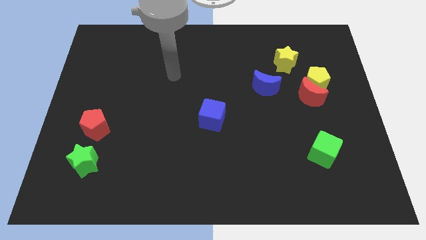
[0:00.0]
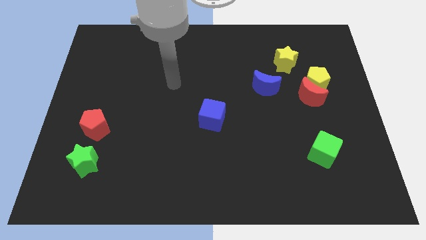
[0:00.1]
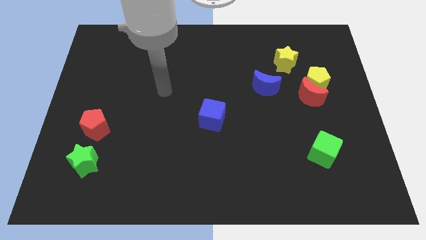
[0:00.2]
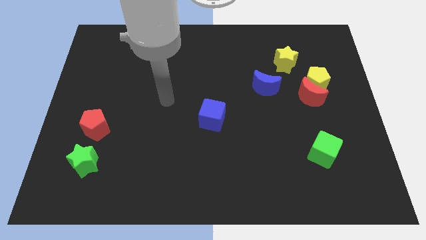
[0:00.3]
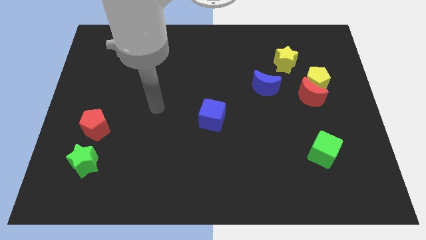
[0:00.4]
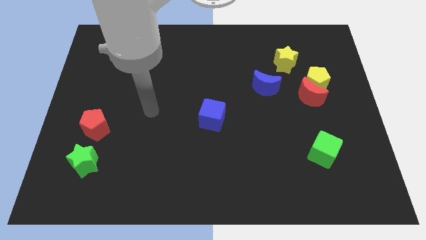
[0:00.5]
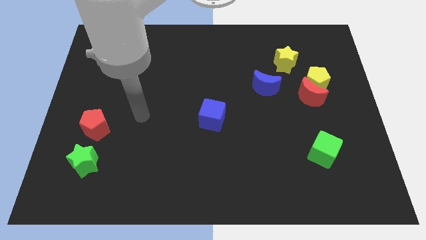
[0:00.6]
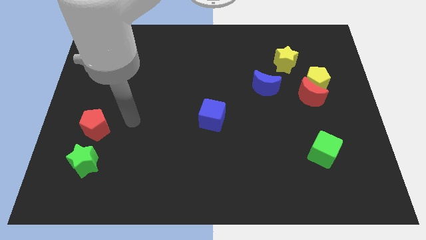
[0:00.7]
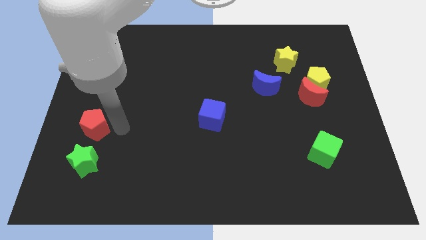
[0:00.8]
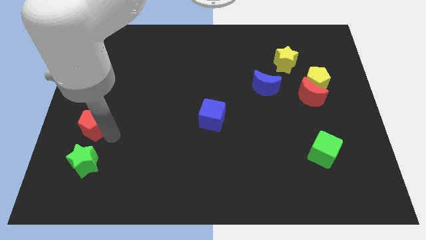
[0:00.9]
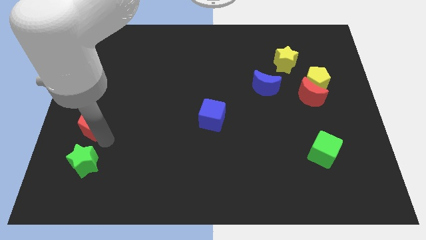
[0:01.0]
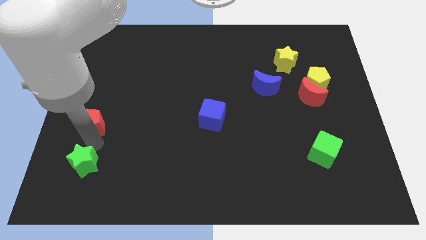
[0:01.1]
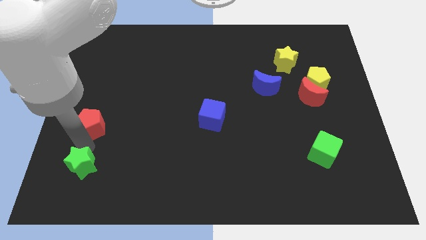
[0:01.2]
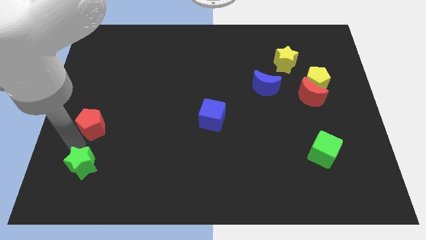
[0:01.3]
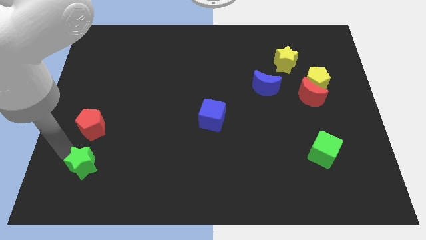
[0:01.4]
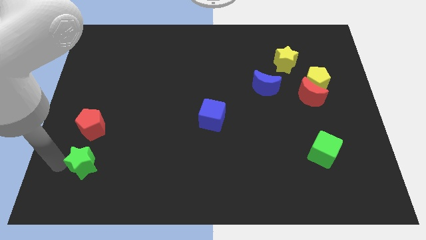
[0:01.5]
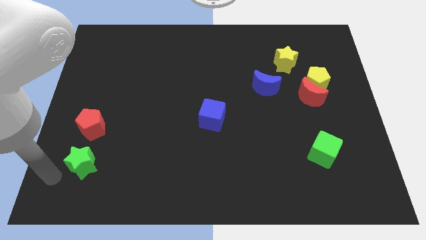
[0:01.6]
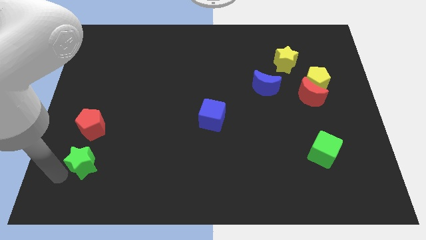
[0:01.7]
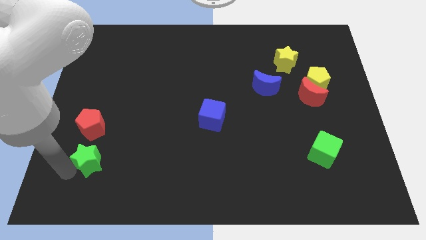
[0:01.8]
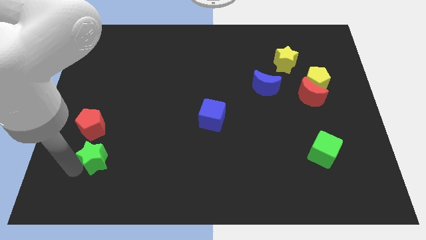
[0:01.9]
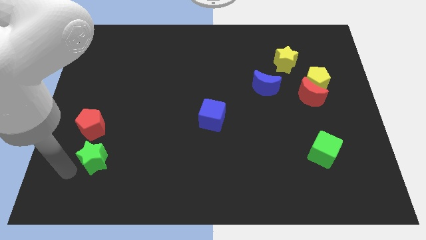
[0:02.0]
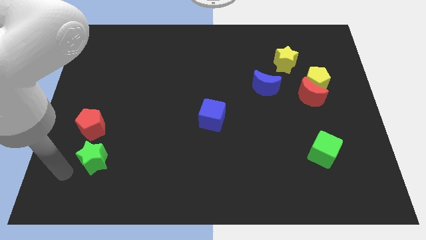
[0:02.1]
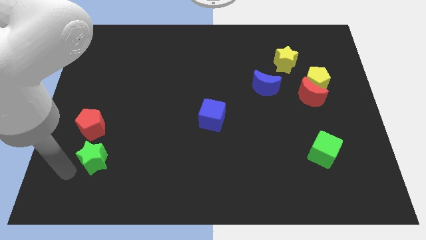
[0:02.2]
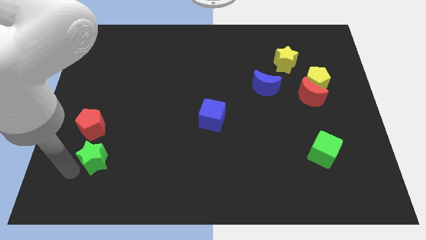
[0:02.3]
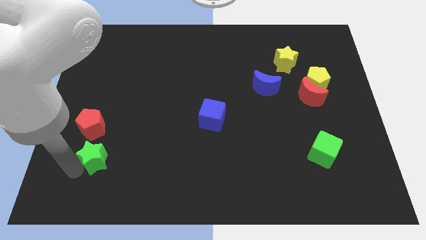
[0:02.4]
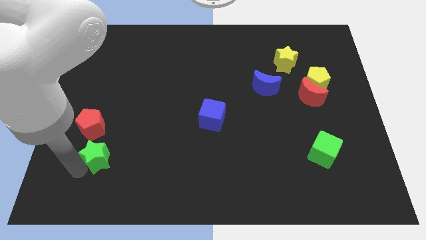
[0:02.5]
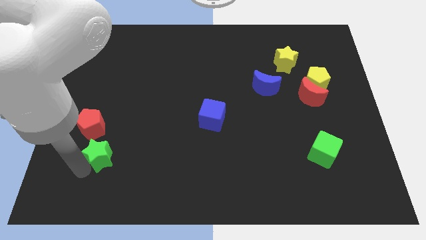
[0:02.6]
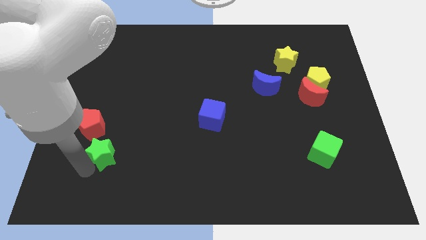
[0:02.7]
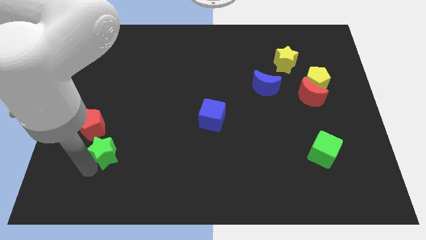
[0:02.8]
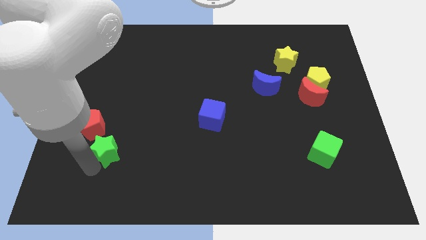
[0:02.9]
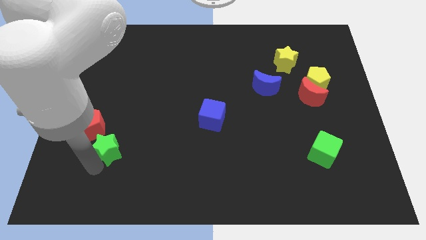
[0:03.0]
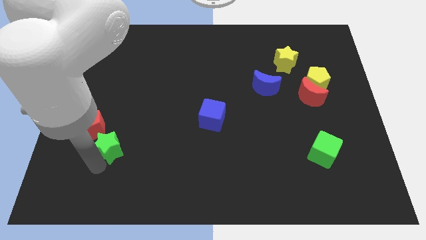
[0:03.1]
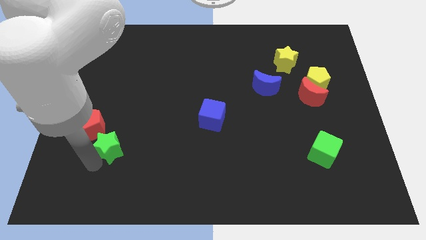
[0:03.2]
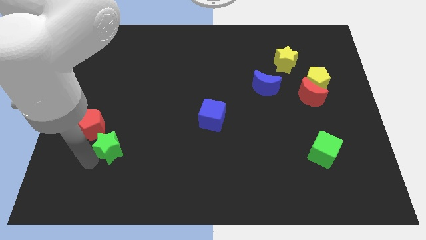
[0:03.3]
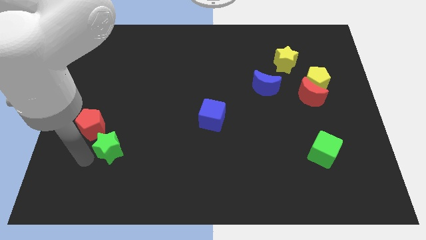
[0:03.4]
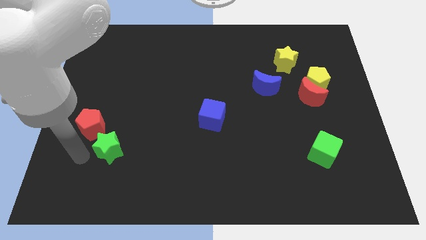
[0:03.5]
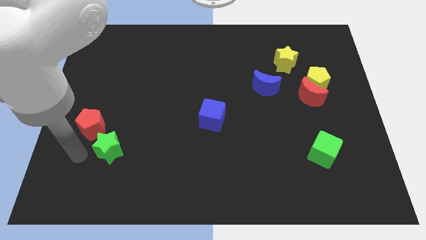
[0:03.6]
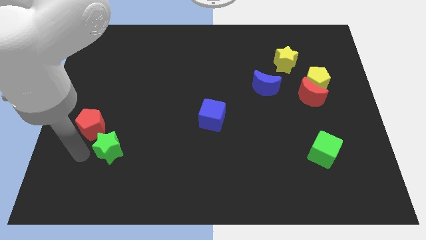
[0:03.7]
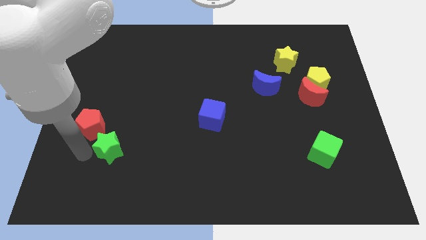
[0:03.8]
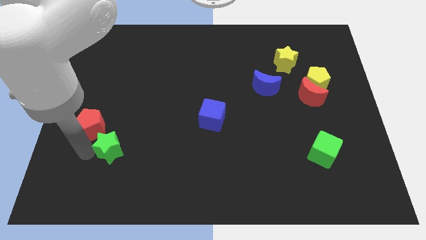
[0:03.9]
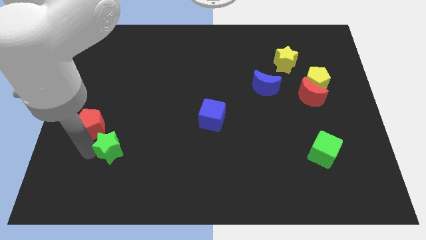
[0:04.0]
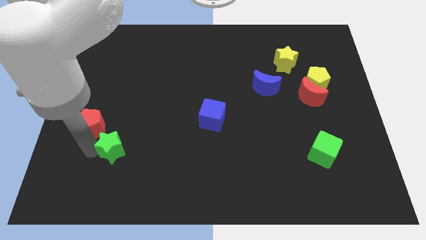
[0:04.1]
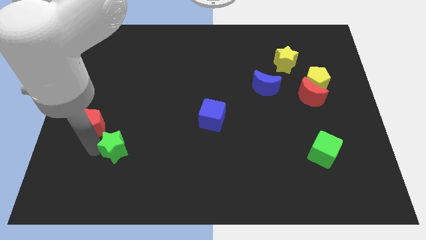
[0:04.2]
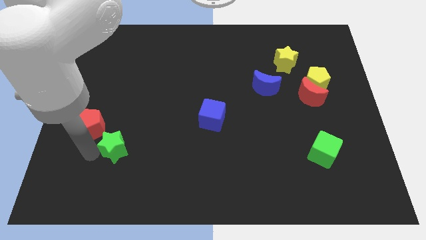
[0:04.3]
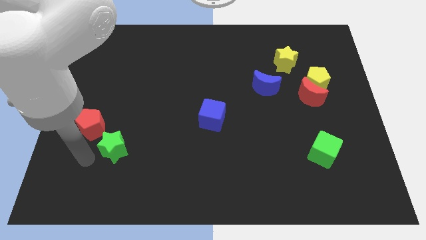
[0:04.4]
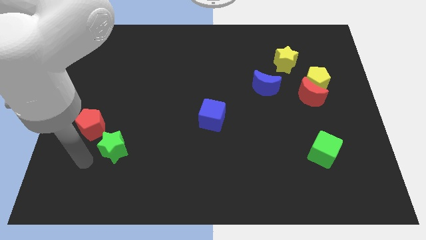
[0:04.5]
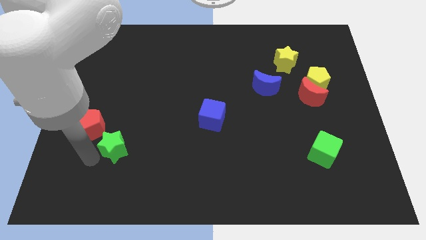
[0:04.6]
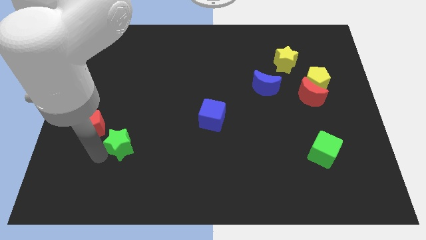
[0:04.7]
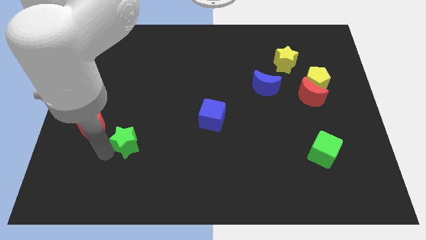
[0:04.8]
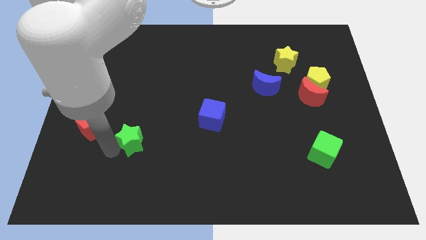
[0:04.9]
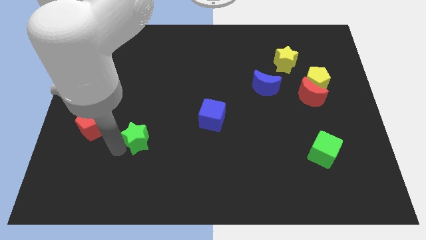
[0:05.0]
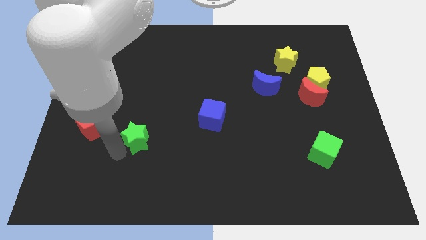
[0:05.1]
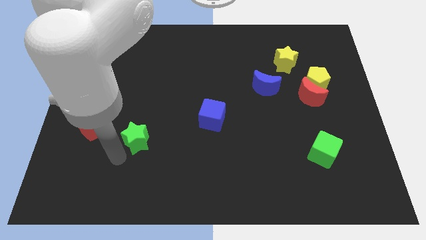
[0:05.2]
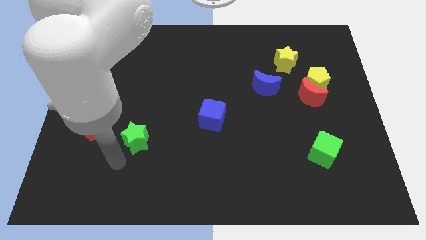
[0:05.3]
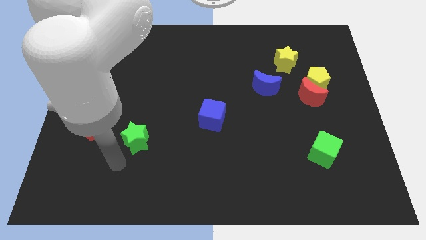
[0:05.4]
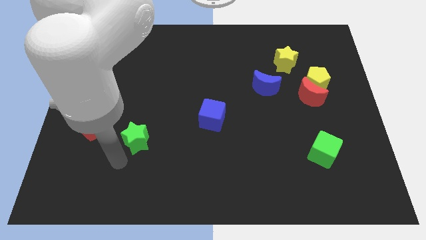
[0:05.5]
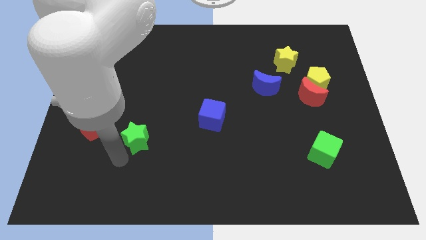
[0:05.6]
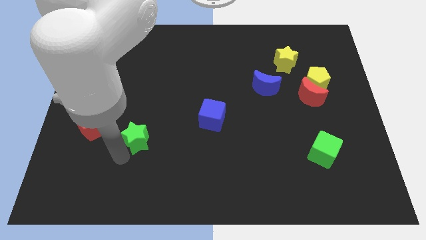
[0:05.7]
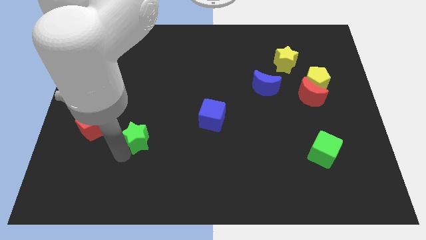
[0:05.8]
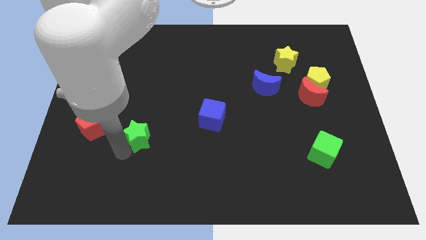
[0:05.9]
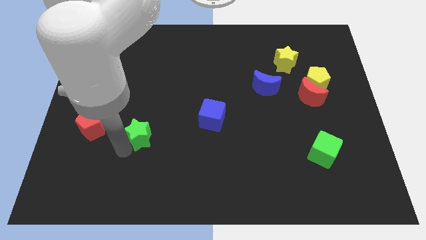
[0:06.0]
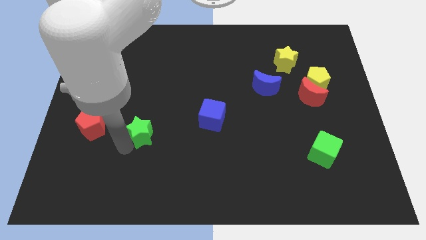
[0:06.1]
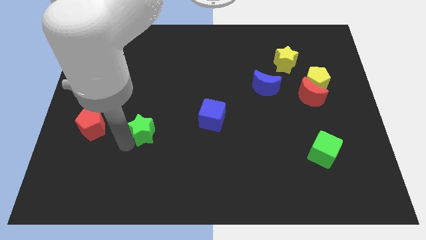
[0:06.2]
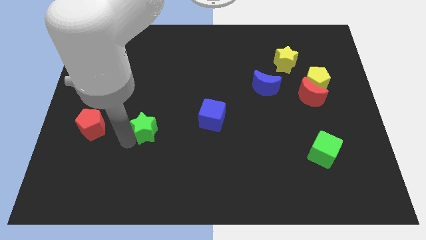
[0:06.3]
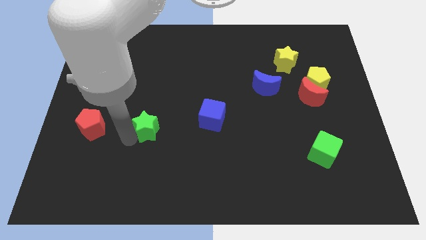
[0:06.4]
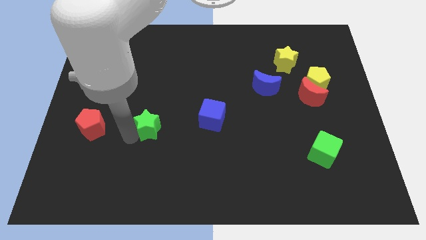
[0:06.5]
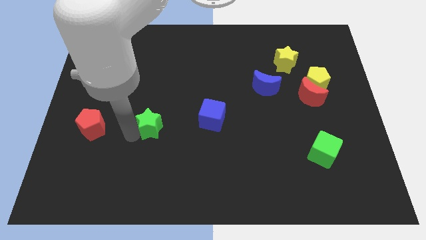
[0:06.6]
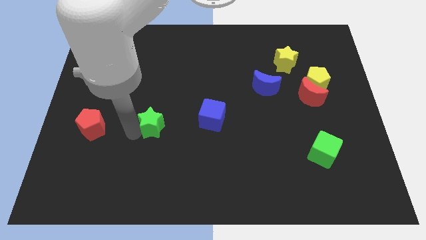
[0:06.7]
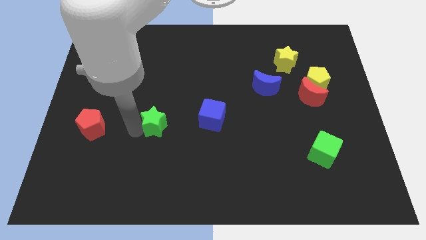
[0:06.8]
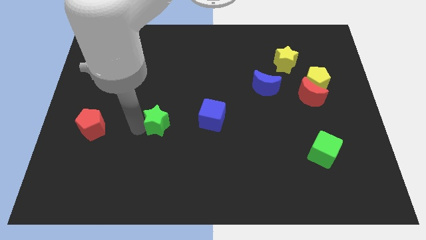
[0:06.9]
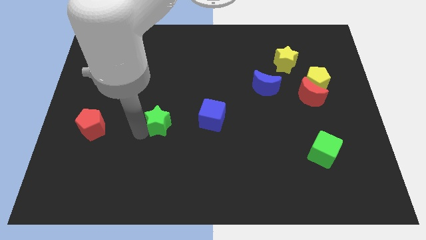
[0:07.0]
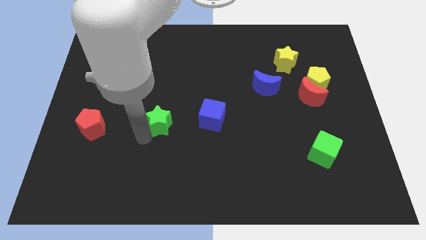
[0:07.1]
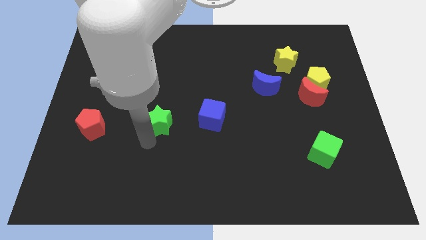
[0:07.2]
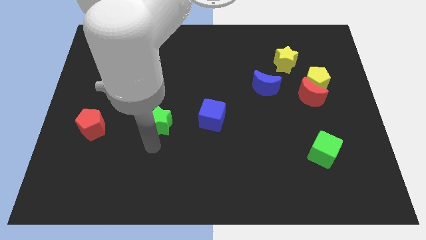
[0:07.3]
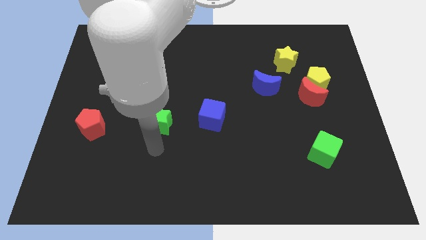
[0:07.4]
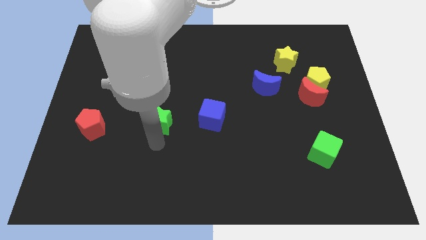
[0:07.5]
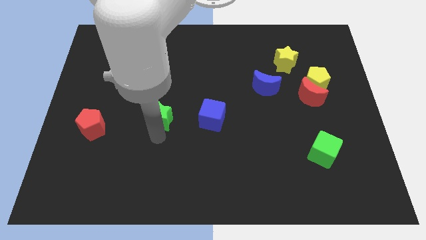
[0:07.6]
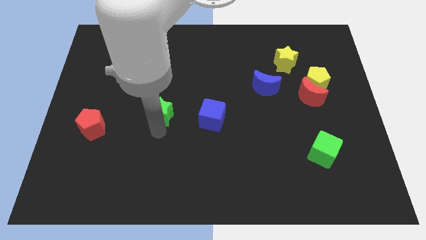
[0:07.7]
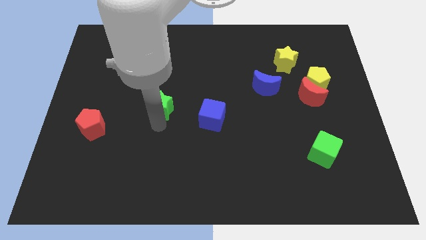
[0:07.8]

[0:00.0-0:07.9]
move the green star diagonally up and right

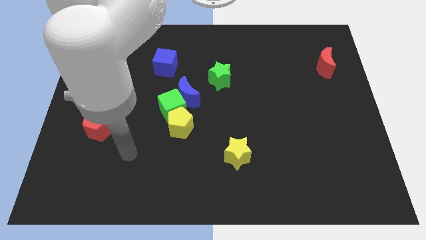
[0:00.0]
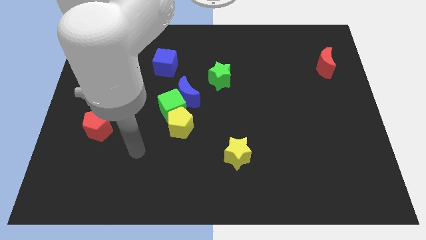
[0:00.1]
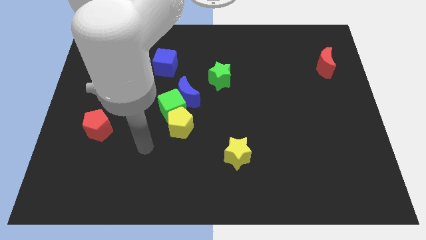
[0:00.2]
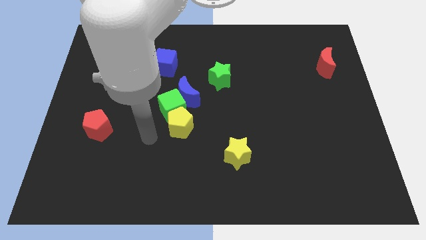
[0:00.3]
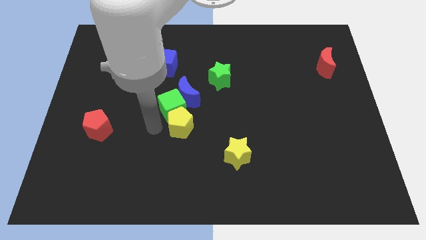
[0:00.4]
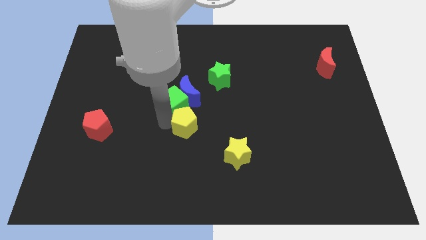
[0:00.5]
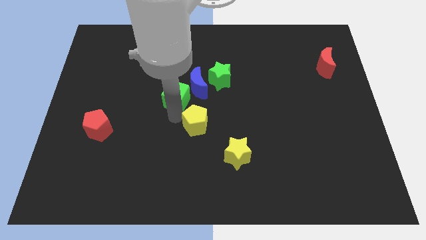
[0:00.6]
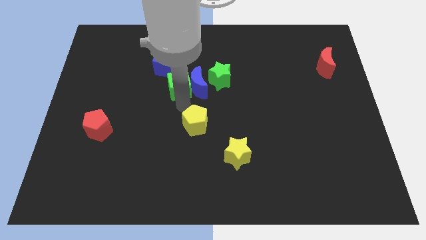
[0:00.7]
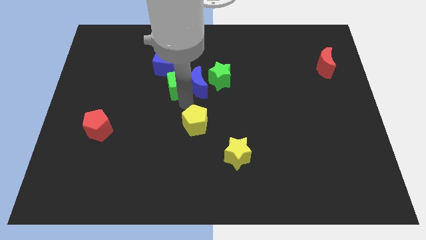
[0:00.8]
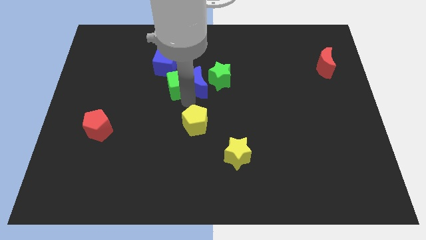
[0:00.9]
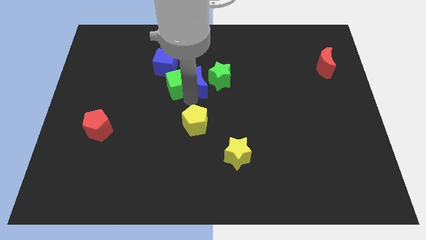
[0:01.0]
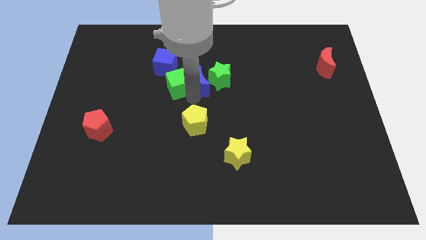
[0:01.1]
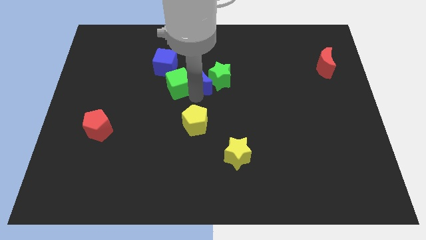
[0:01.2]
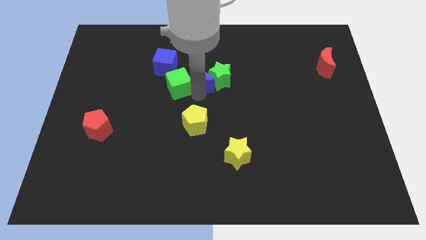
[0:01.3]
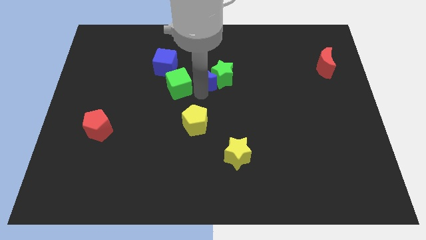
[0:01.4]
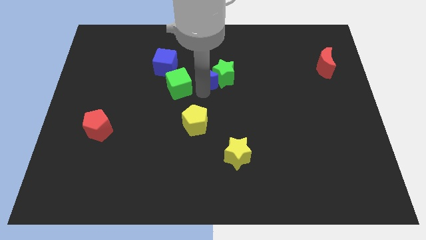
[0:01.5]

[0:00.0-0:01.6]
push the blue moon a little diagonally upwards and to the right
